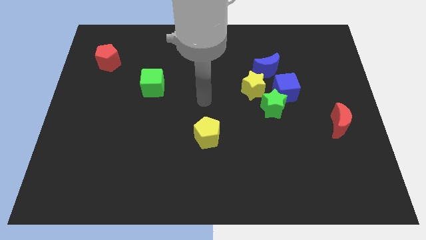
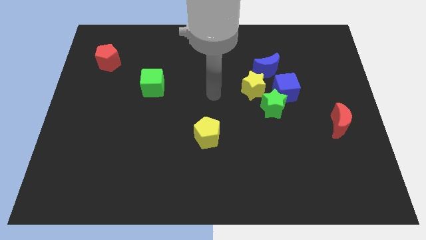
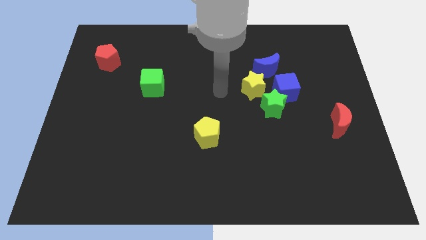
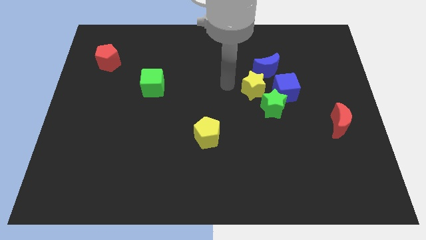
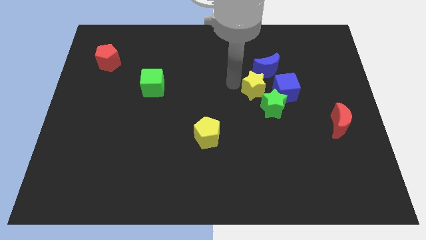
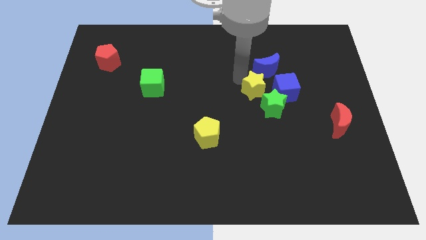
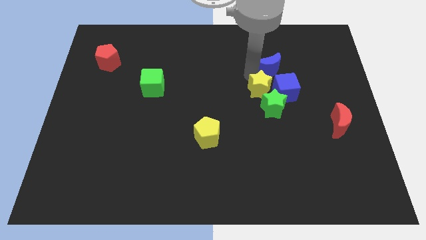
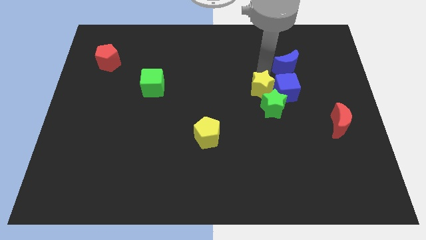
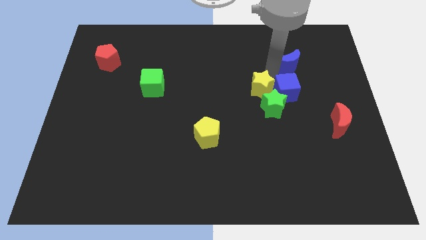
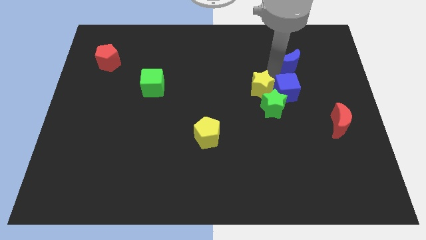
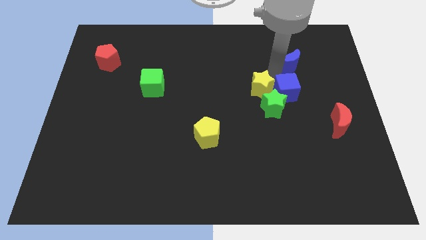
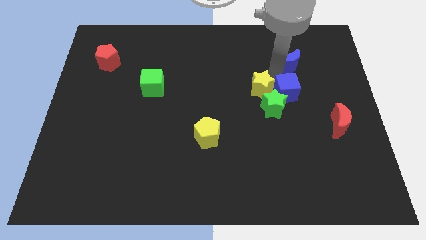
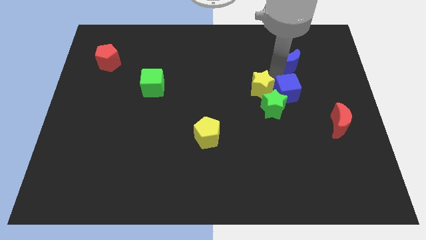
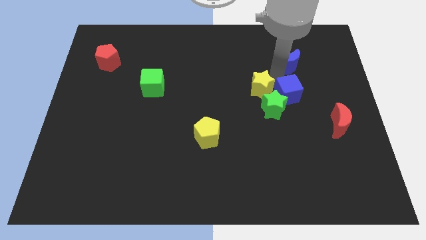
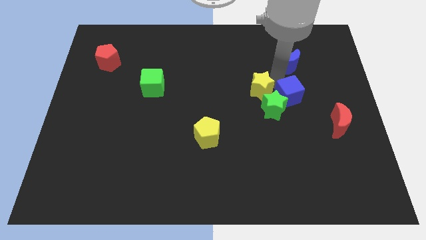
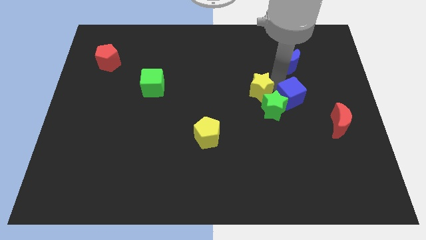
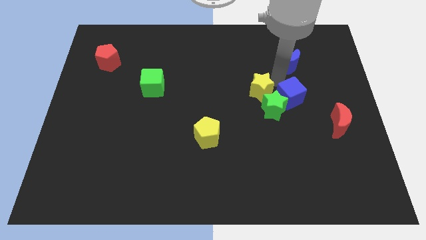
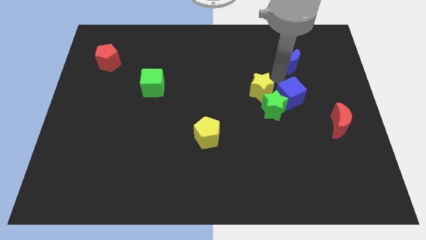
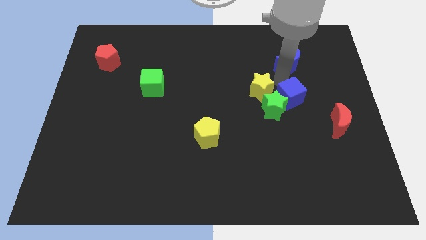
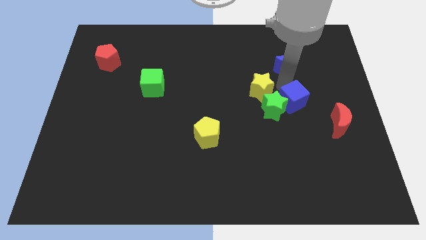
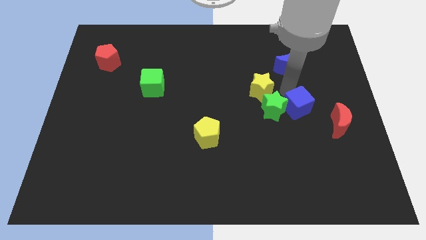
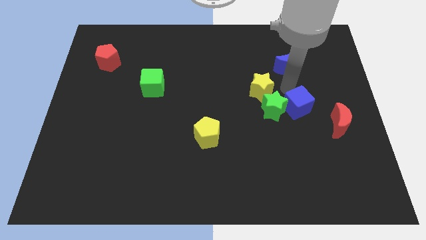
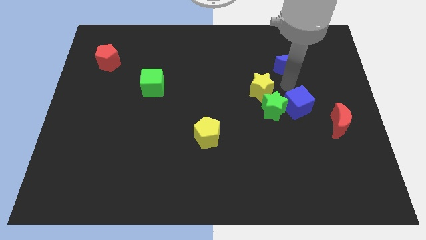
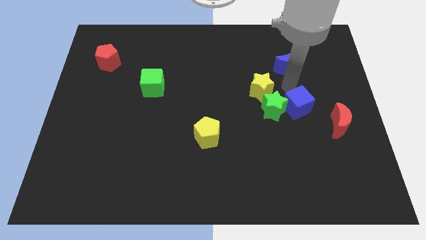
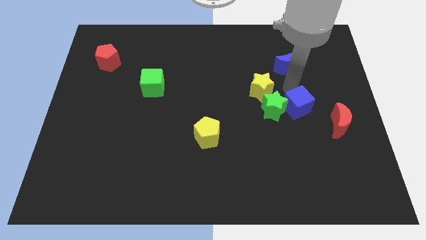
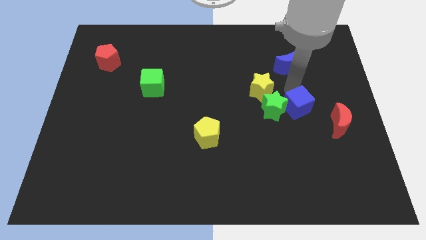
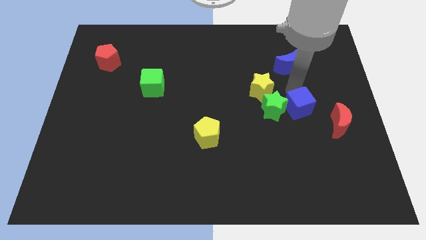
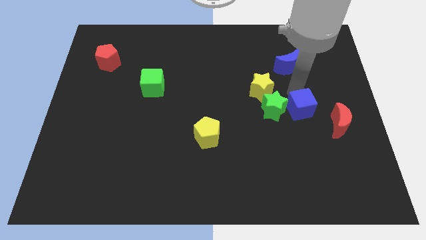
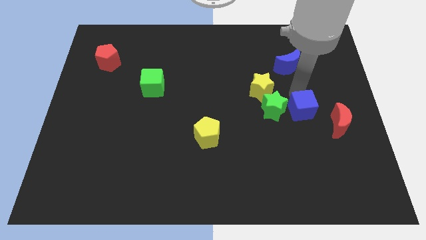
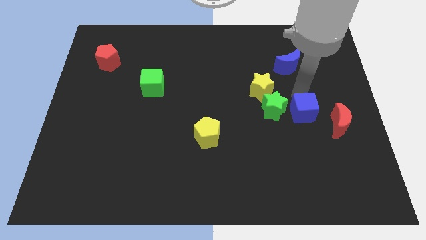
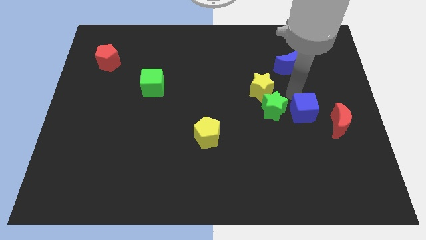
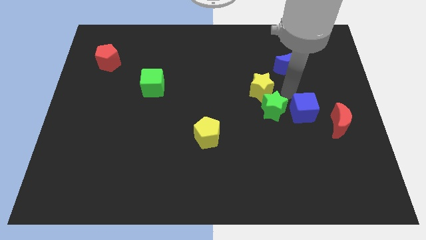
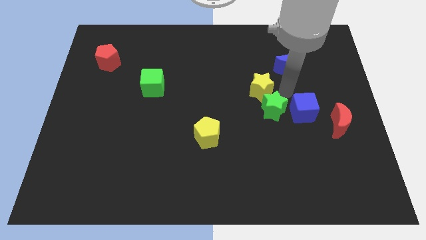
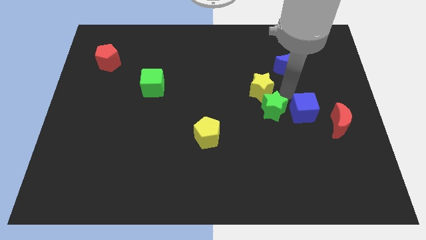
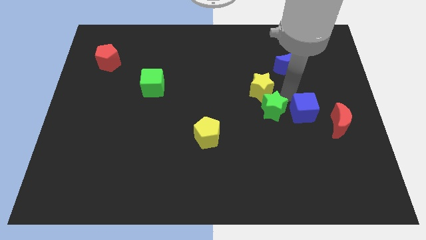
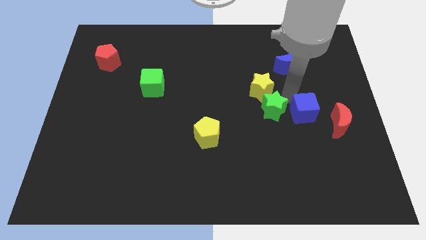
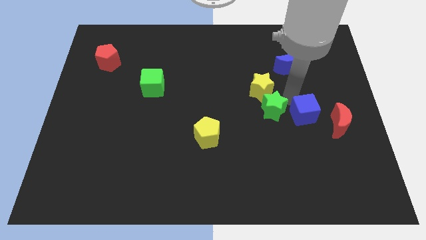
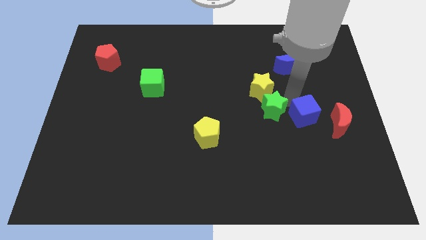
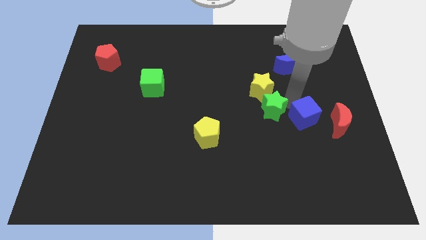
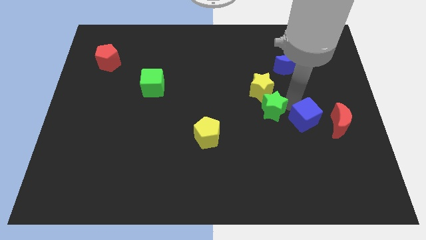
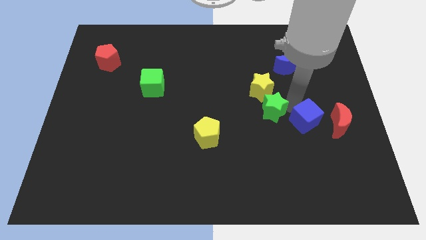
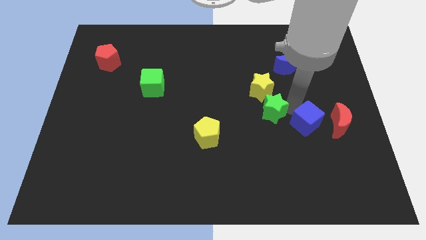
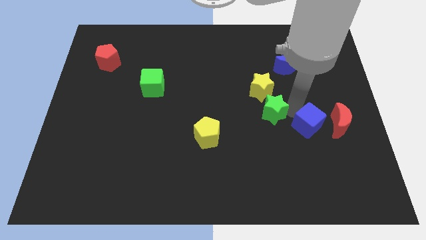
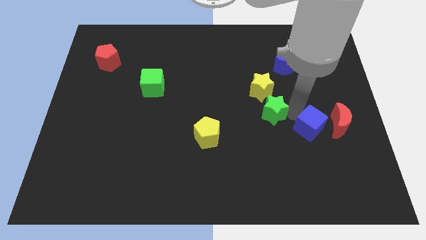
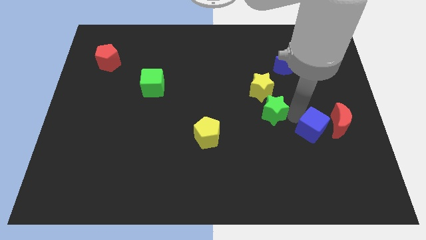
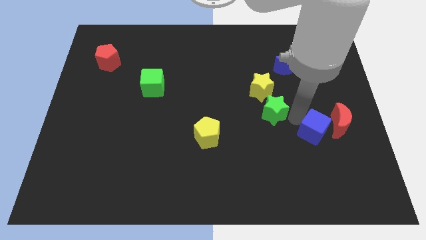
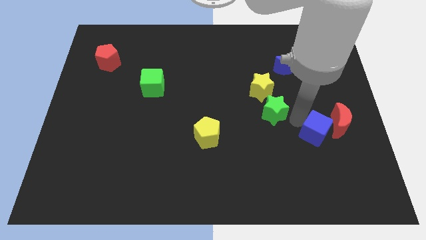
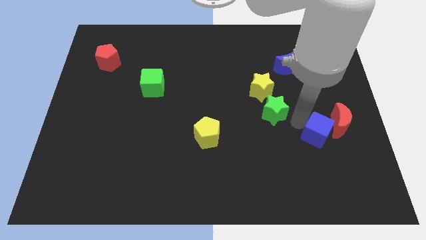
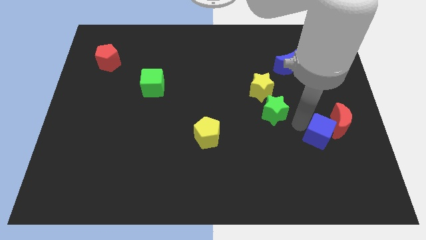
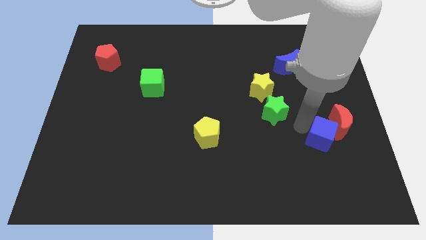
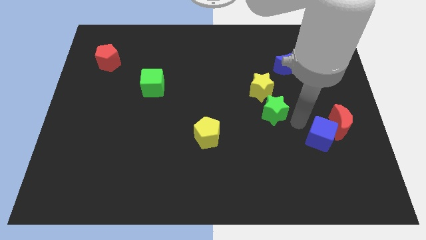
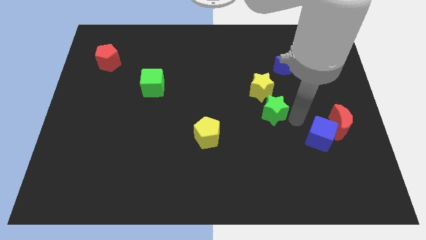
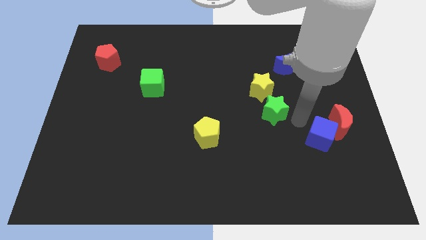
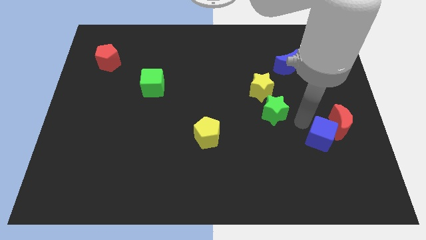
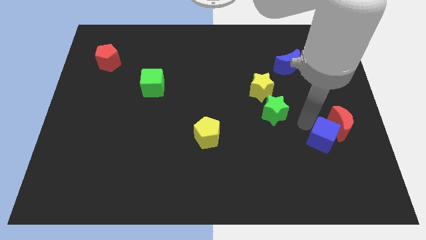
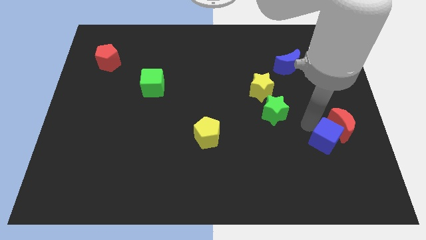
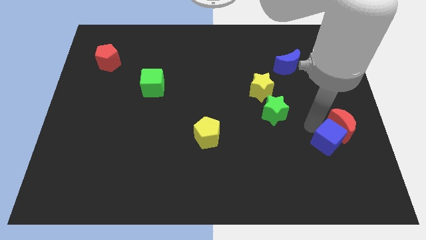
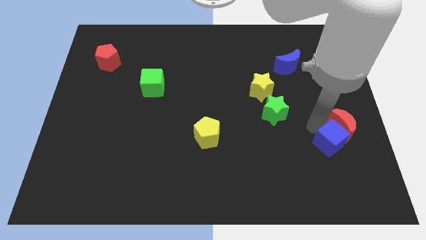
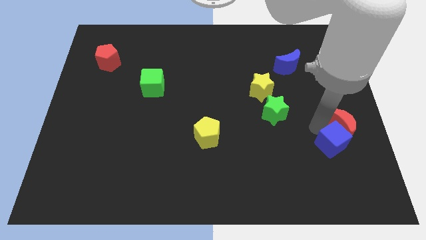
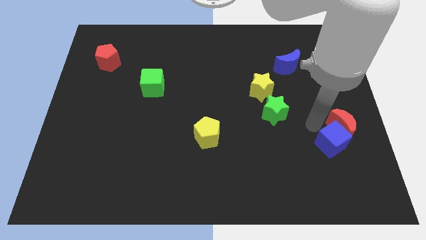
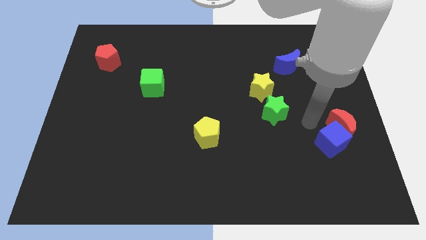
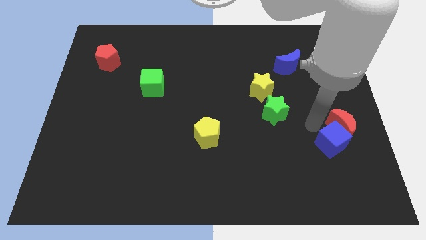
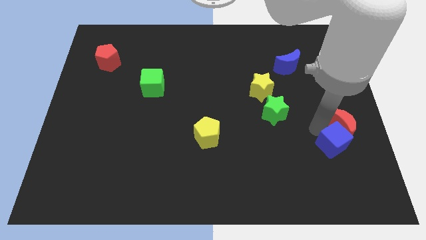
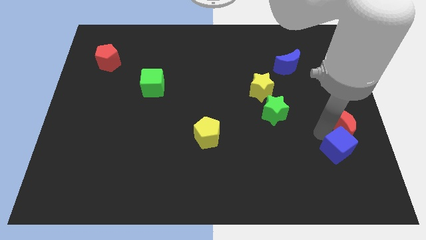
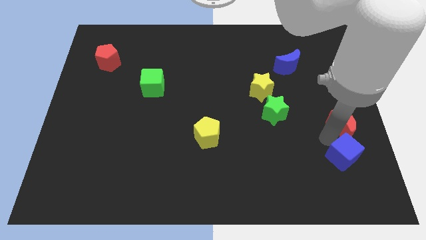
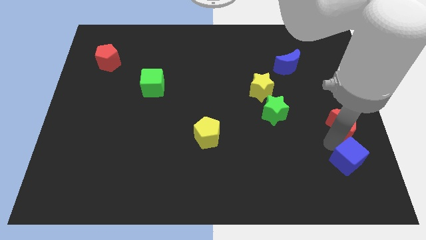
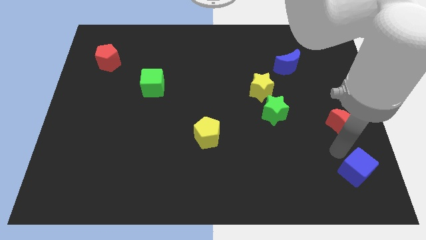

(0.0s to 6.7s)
slide the blue cube to the bottom right

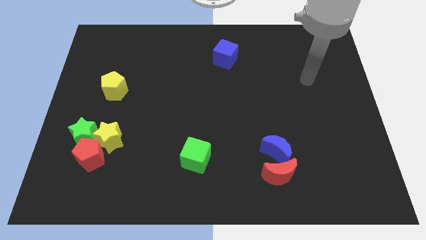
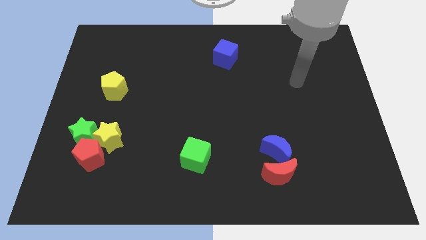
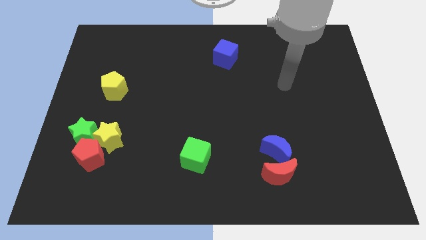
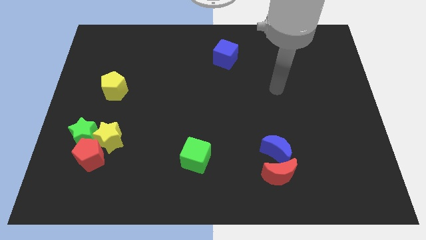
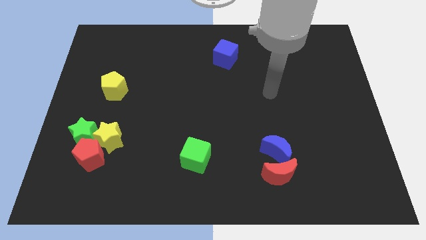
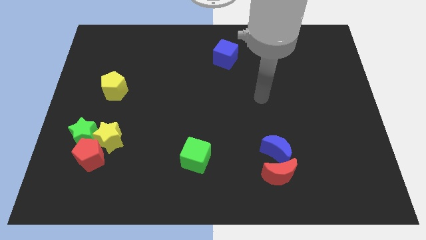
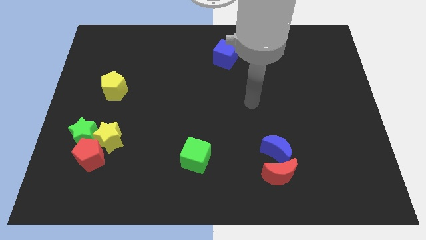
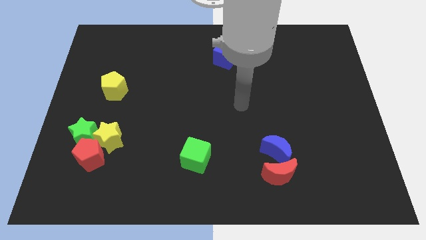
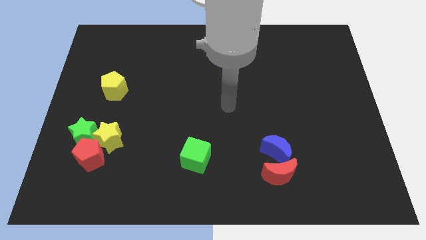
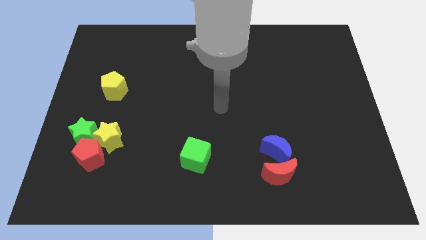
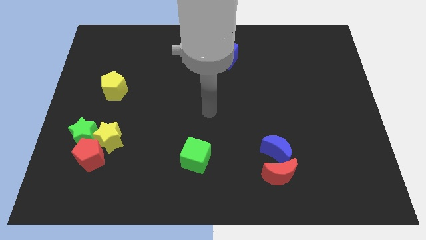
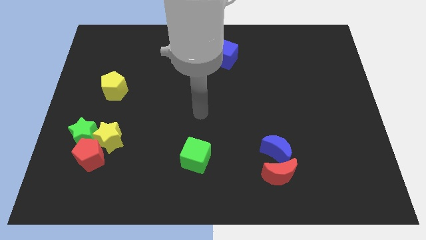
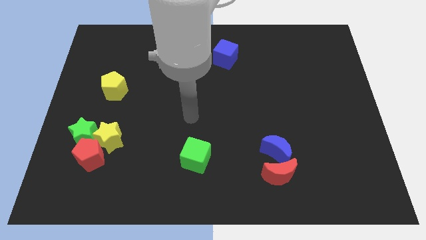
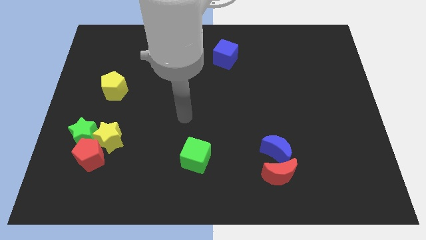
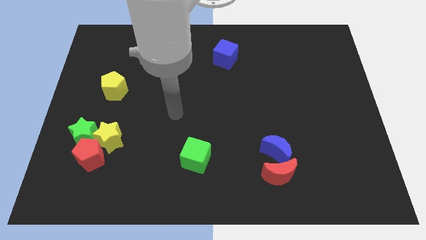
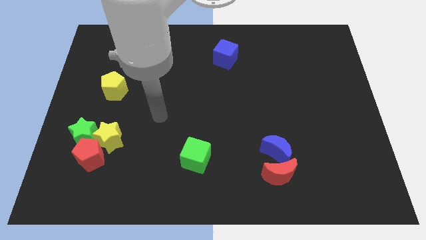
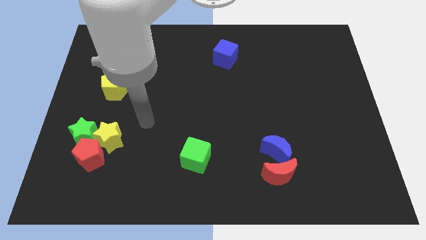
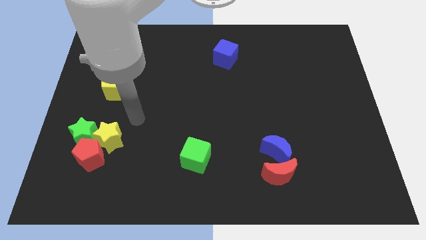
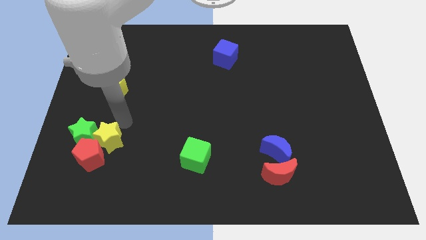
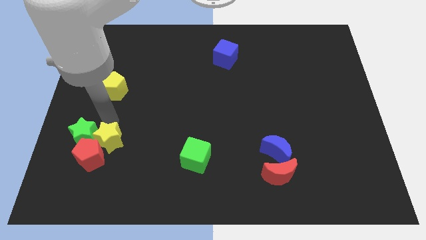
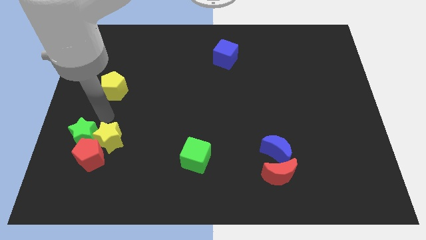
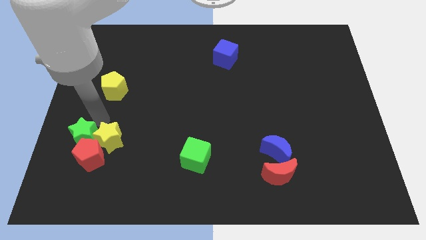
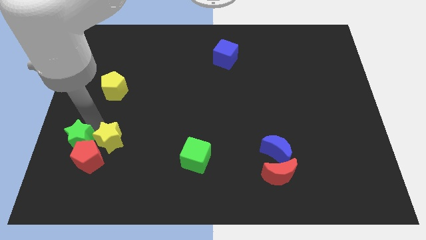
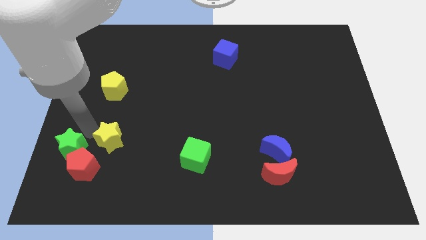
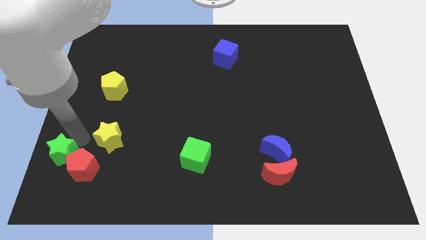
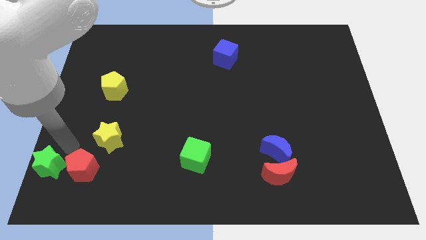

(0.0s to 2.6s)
push the green star to the bottom left corner
